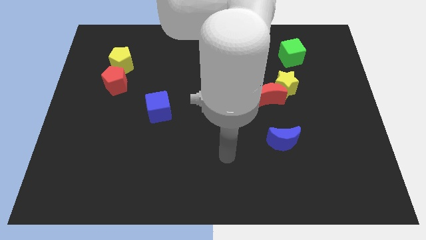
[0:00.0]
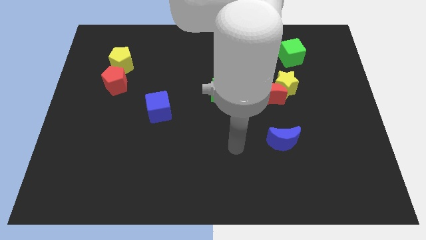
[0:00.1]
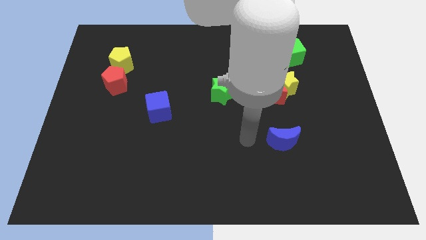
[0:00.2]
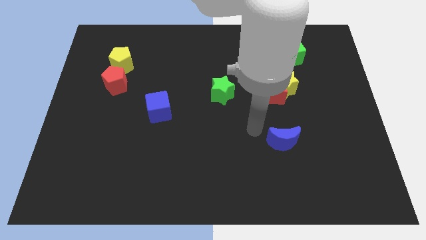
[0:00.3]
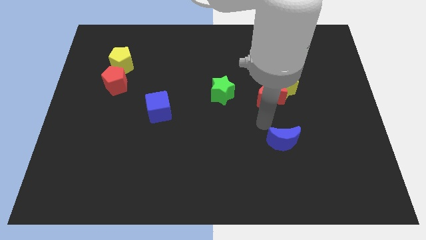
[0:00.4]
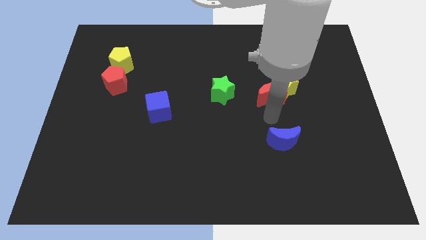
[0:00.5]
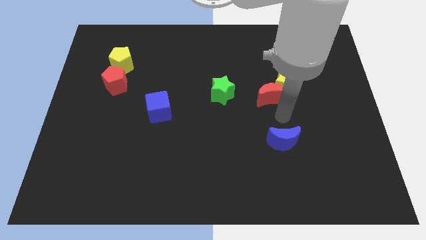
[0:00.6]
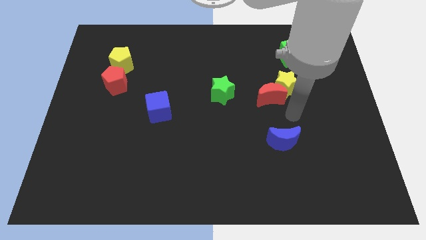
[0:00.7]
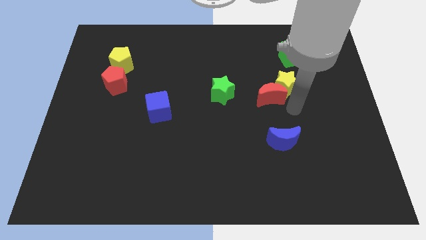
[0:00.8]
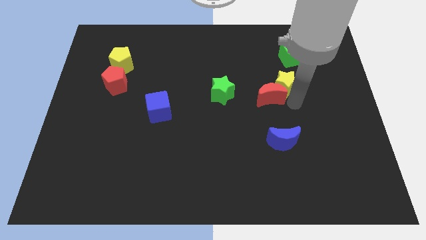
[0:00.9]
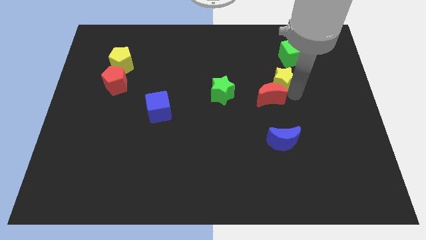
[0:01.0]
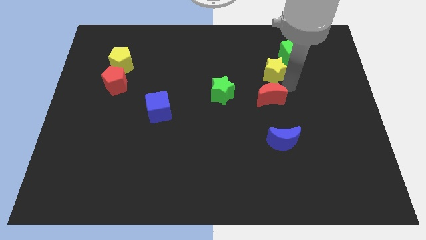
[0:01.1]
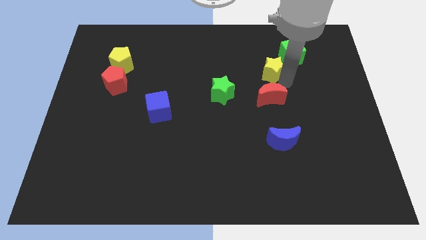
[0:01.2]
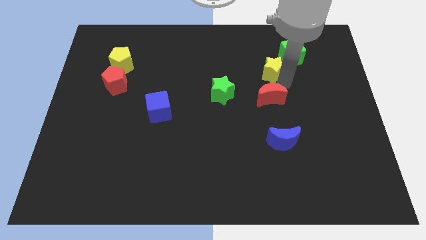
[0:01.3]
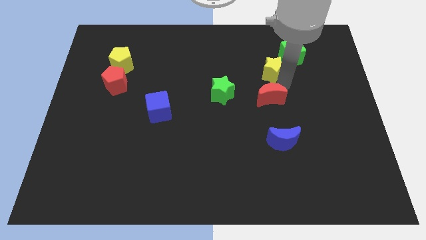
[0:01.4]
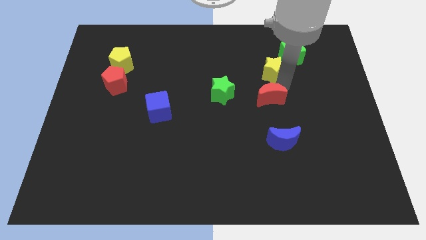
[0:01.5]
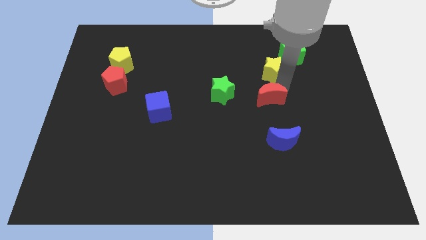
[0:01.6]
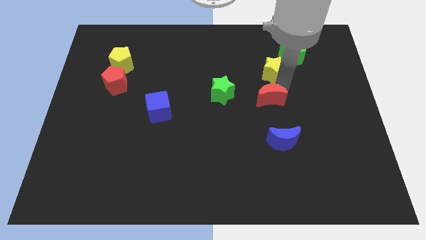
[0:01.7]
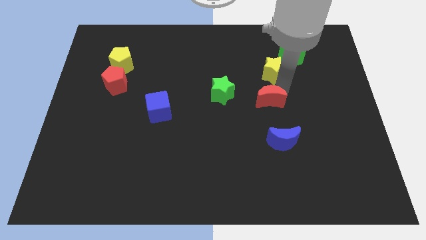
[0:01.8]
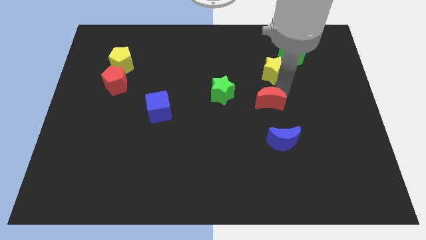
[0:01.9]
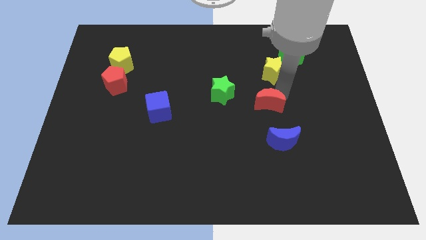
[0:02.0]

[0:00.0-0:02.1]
pull the red moon apart from the yellow star

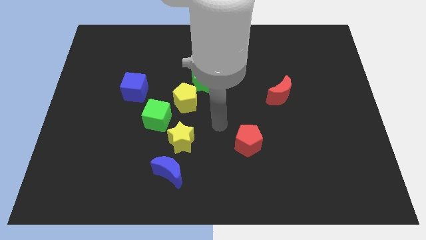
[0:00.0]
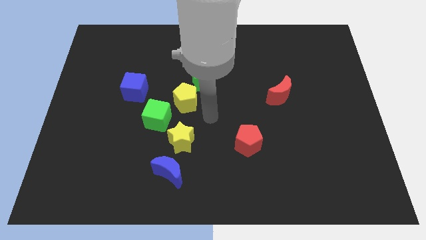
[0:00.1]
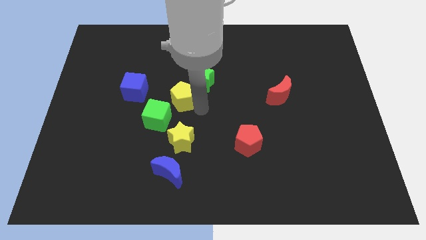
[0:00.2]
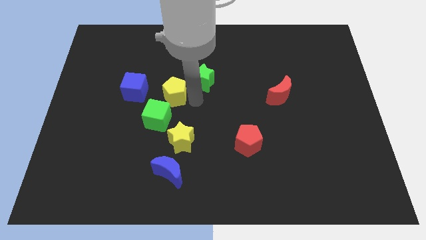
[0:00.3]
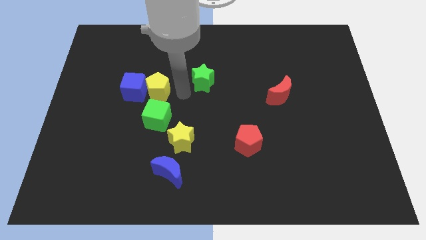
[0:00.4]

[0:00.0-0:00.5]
separate the green star from the yellow pentagon

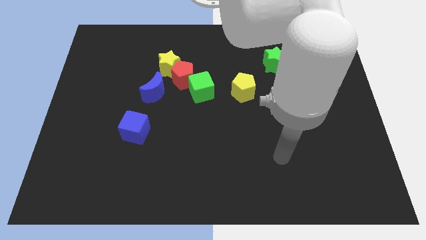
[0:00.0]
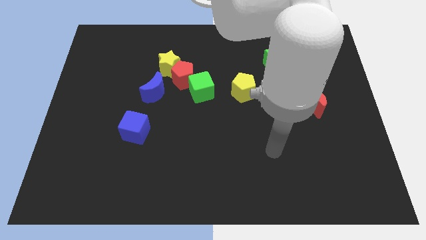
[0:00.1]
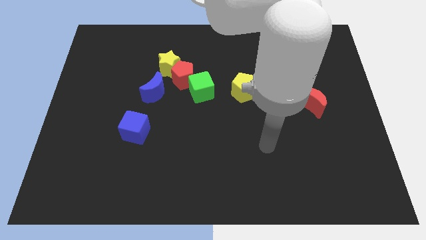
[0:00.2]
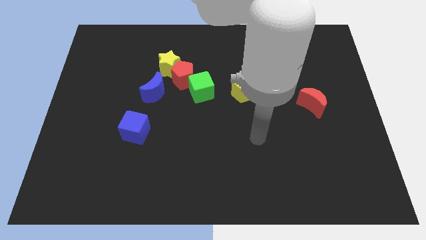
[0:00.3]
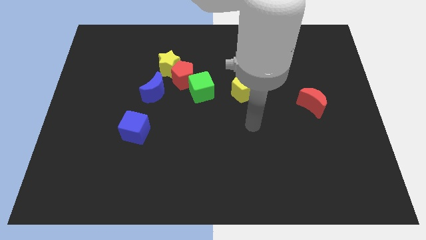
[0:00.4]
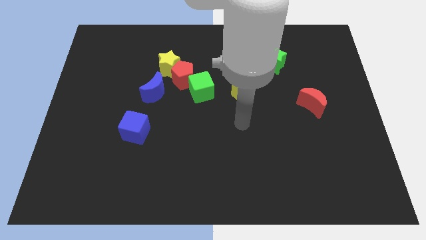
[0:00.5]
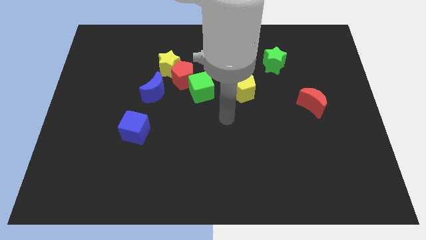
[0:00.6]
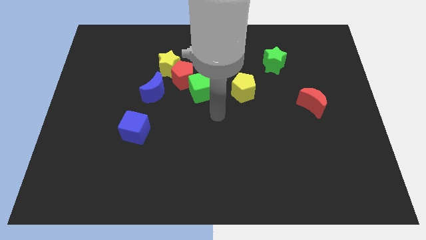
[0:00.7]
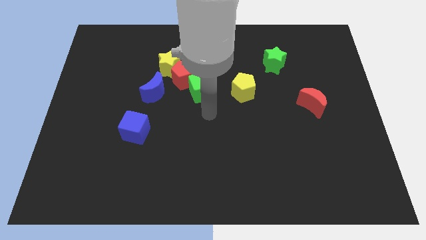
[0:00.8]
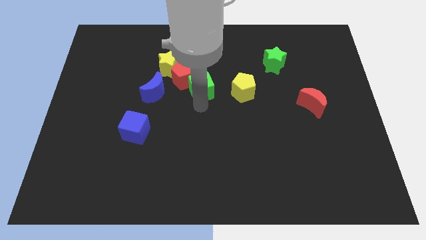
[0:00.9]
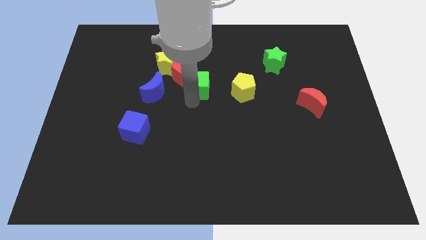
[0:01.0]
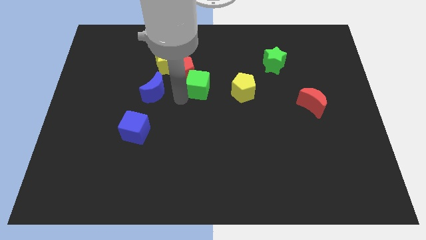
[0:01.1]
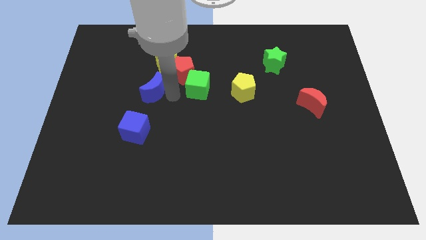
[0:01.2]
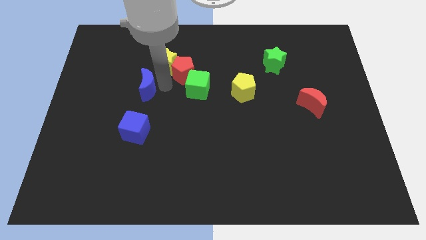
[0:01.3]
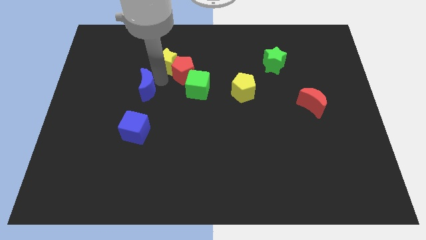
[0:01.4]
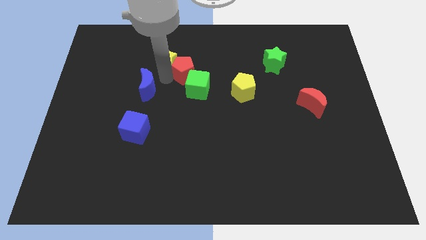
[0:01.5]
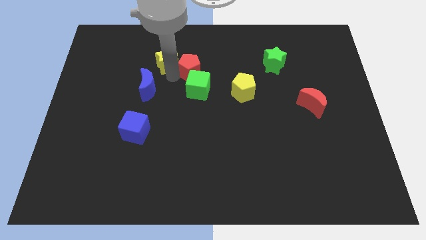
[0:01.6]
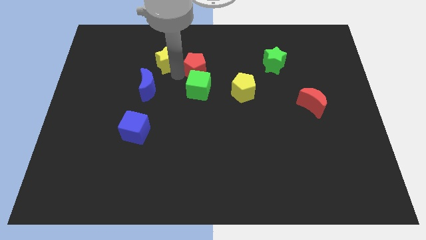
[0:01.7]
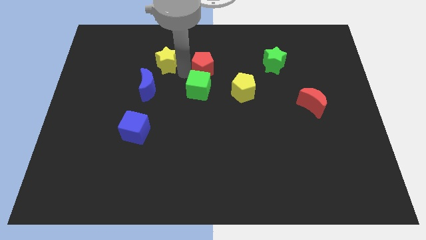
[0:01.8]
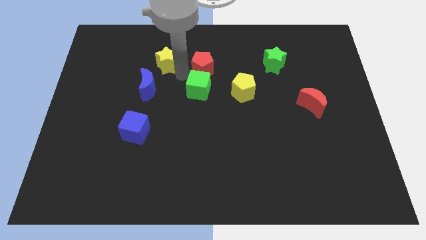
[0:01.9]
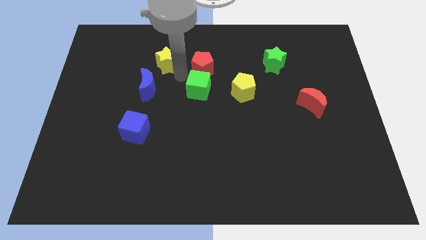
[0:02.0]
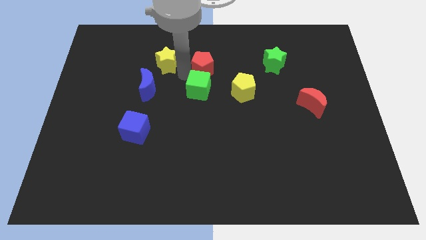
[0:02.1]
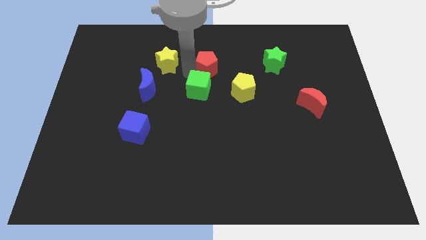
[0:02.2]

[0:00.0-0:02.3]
pull the red pentagon apart from the yellow star, green cube, and blue moon

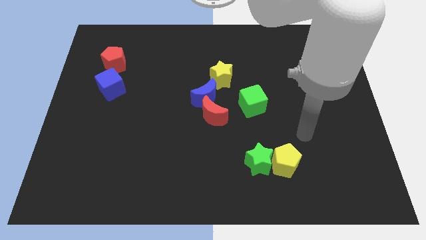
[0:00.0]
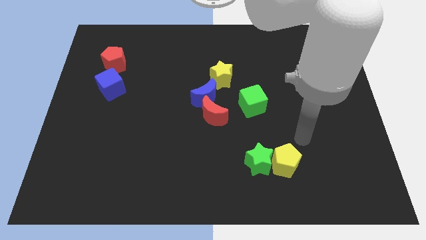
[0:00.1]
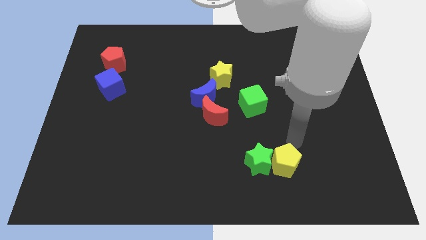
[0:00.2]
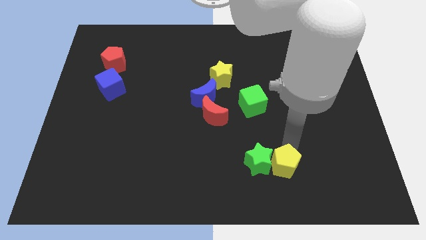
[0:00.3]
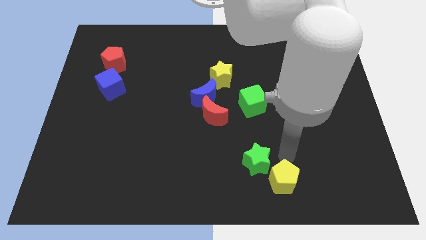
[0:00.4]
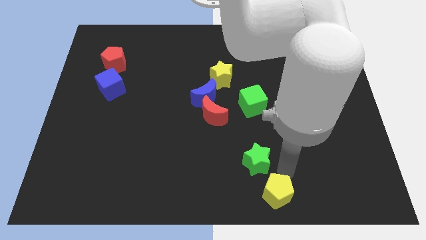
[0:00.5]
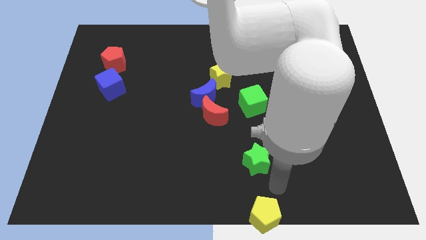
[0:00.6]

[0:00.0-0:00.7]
pull the green star apart from the yellow pentagon

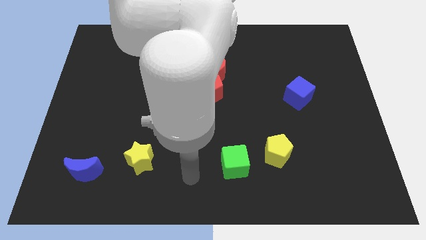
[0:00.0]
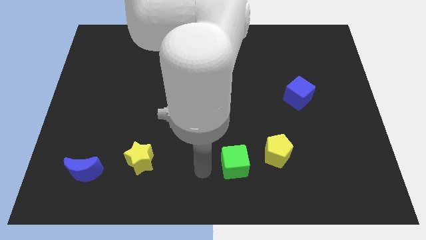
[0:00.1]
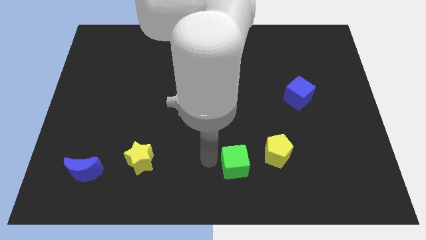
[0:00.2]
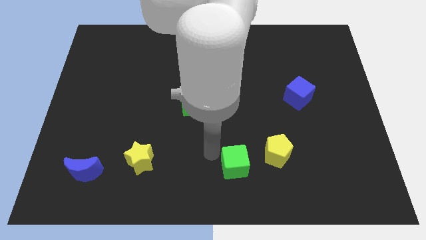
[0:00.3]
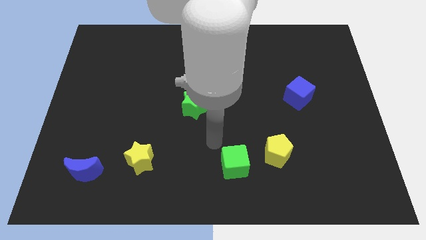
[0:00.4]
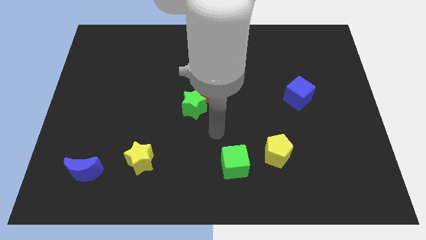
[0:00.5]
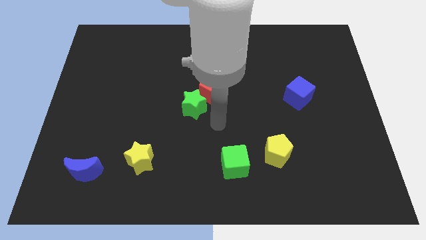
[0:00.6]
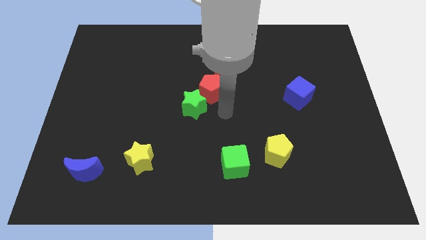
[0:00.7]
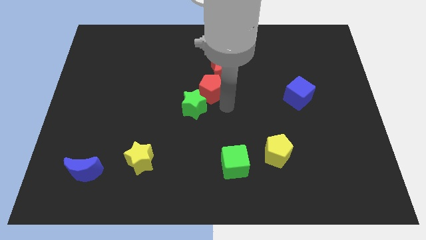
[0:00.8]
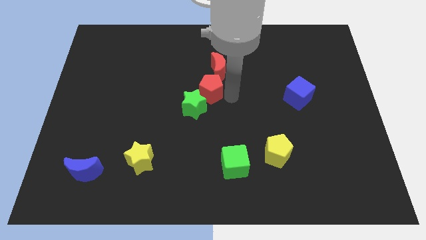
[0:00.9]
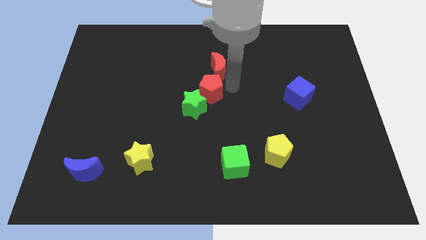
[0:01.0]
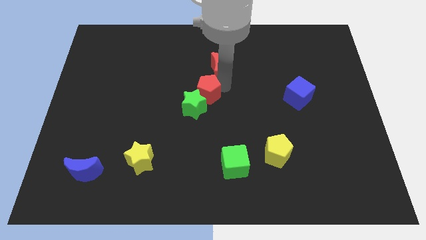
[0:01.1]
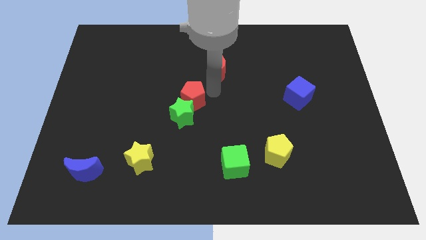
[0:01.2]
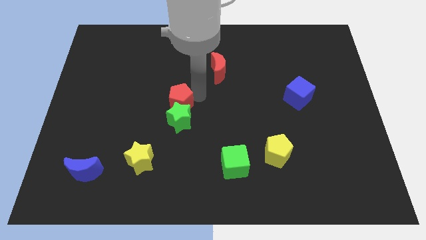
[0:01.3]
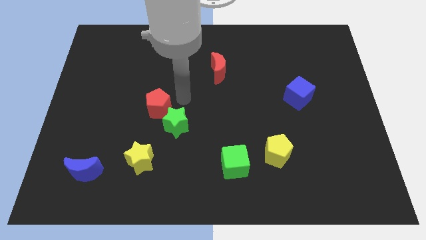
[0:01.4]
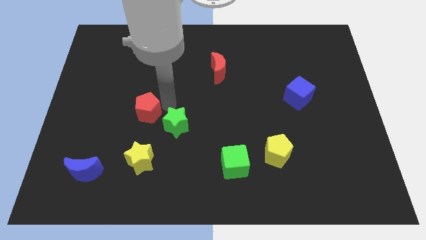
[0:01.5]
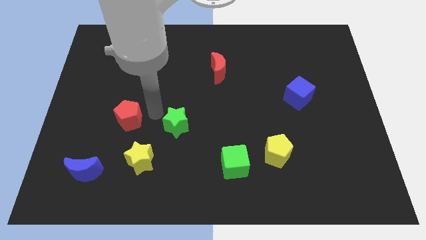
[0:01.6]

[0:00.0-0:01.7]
separate the green star from the red pentagon

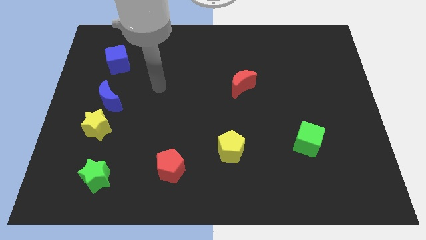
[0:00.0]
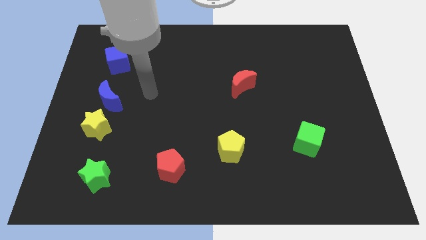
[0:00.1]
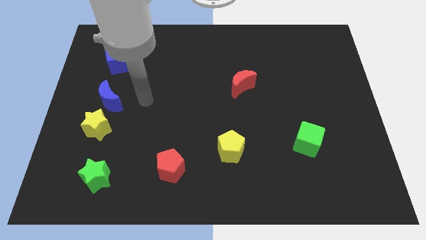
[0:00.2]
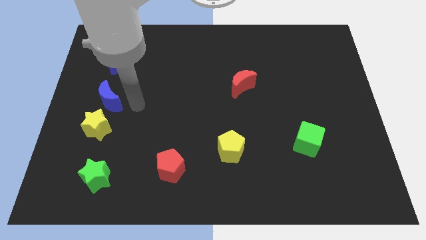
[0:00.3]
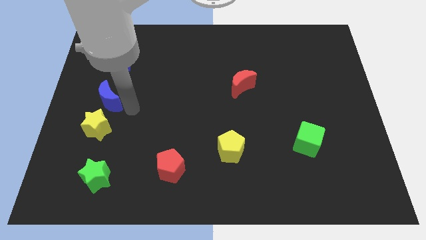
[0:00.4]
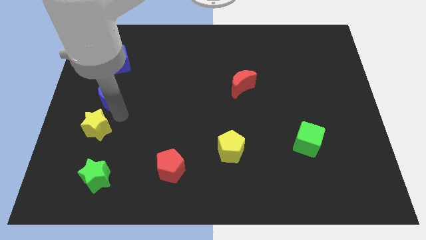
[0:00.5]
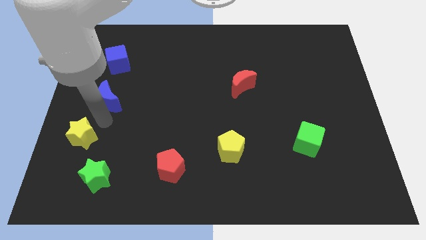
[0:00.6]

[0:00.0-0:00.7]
separate the blue moon from the yellow star

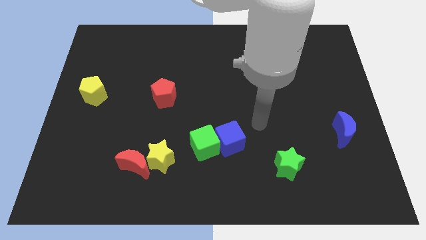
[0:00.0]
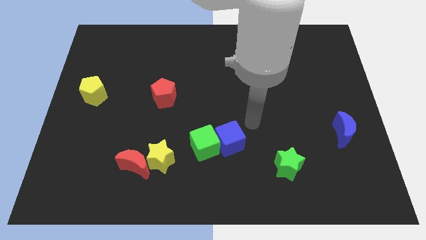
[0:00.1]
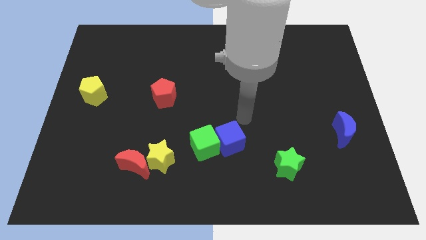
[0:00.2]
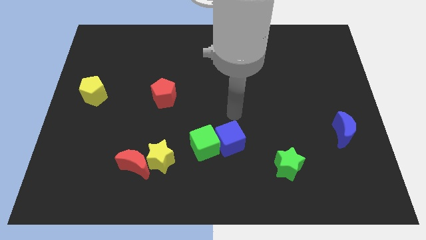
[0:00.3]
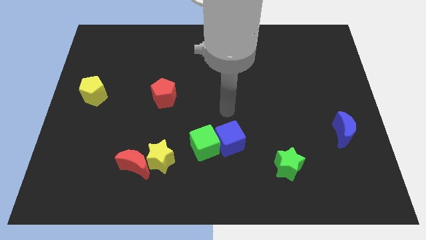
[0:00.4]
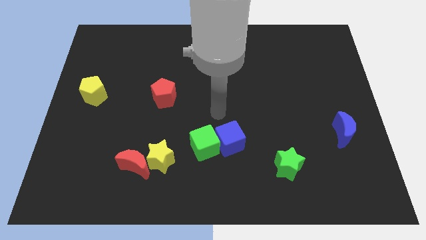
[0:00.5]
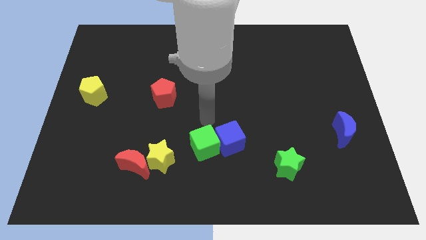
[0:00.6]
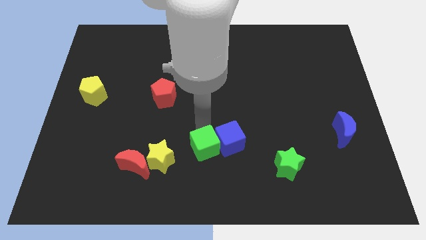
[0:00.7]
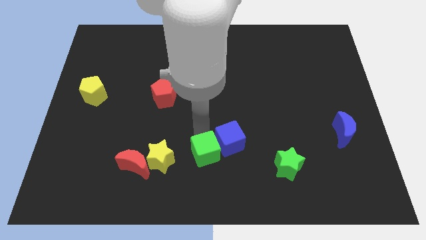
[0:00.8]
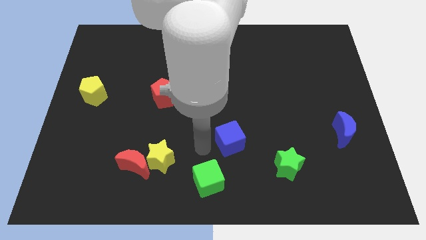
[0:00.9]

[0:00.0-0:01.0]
move the blue cube away from the green cube

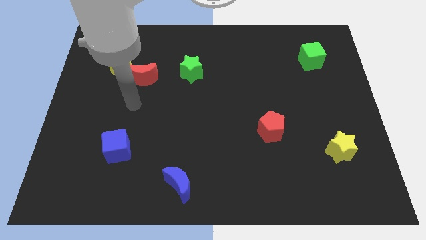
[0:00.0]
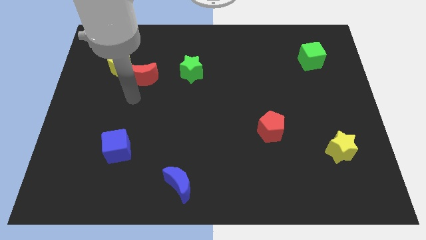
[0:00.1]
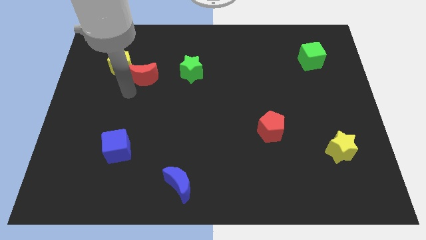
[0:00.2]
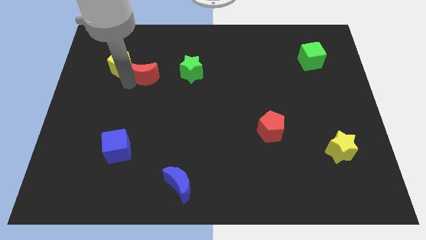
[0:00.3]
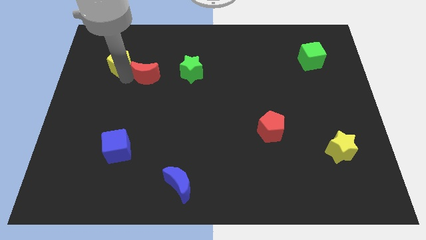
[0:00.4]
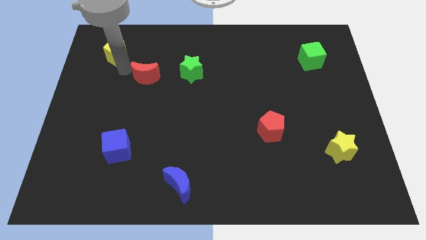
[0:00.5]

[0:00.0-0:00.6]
move the red moon away from the yellow pentagon
